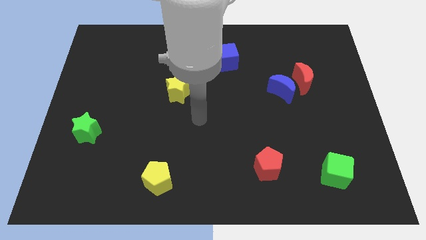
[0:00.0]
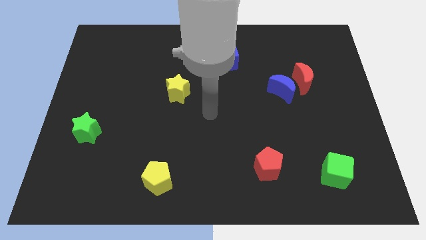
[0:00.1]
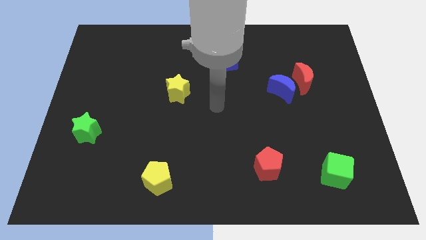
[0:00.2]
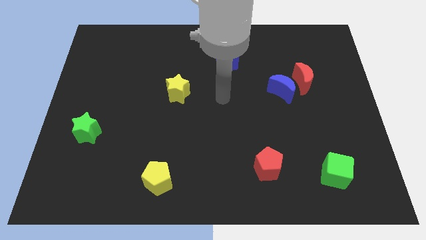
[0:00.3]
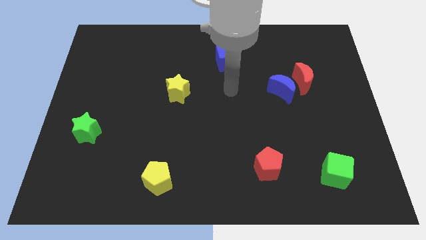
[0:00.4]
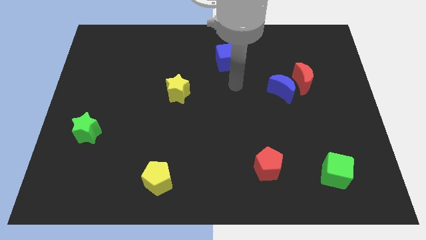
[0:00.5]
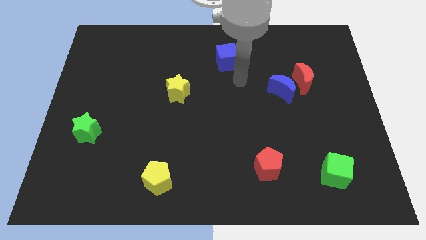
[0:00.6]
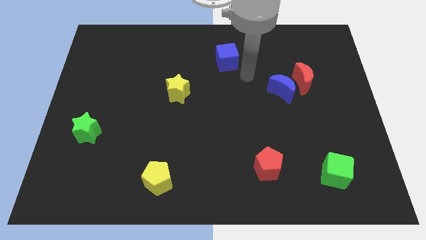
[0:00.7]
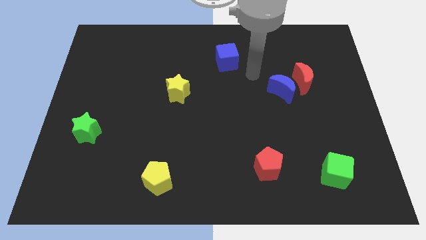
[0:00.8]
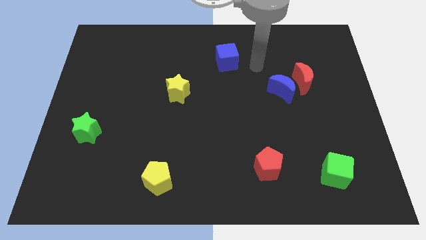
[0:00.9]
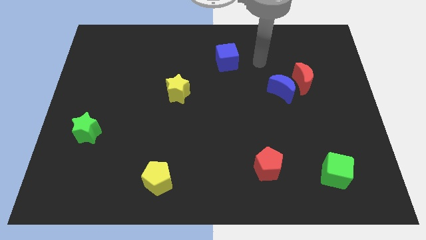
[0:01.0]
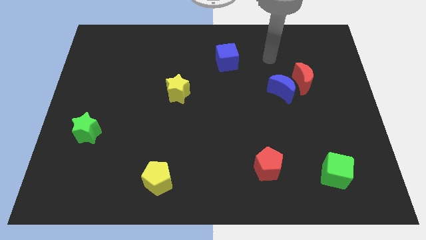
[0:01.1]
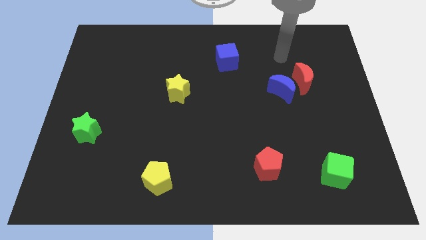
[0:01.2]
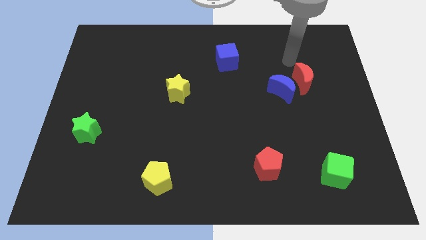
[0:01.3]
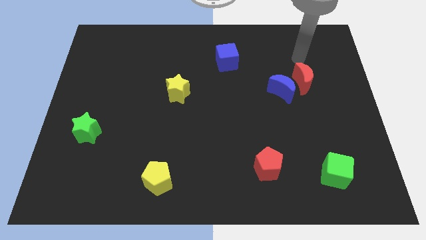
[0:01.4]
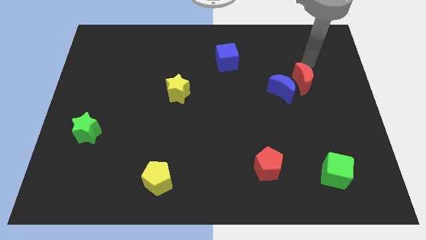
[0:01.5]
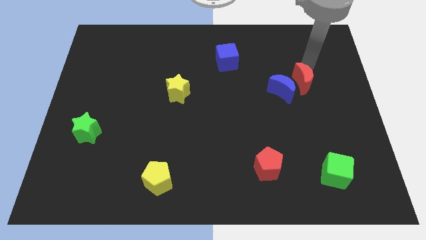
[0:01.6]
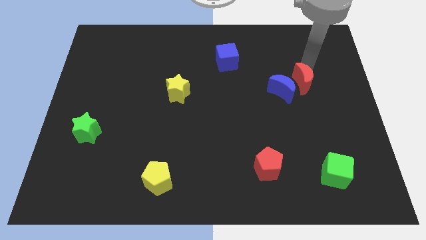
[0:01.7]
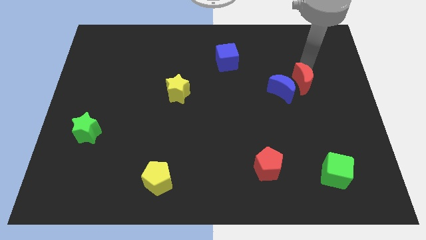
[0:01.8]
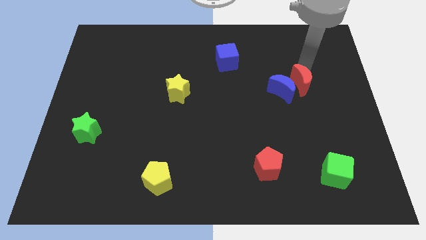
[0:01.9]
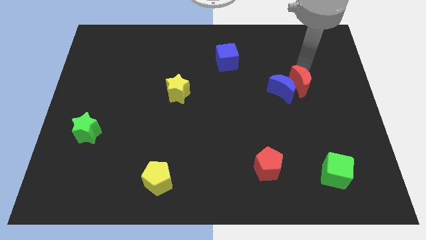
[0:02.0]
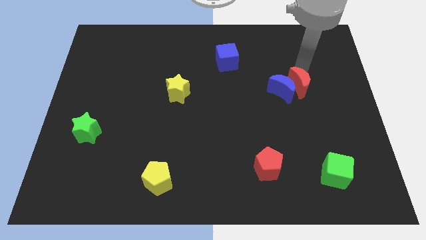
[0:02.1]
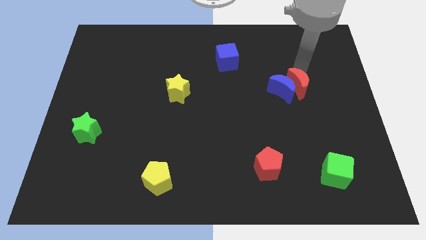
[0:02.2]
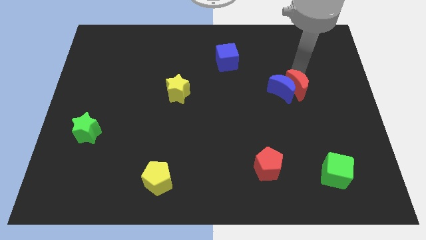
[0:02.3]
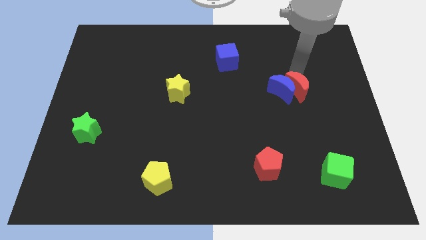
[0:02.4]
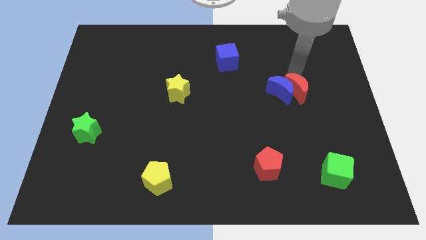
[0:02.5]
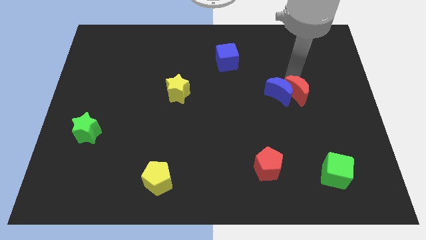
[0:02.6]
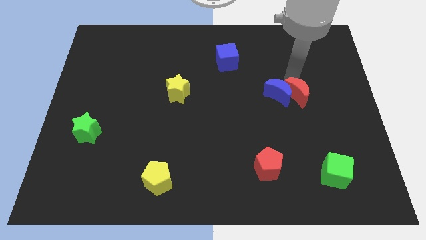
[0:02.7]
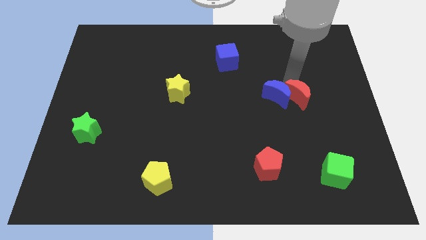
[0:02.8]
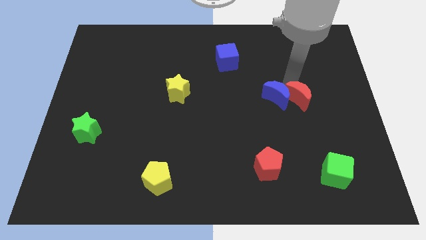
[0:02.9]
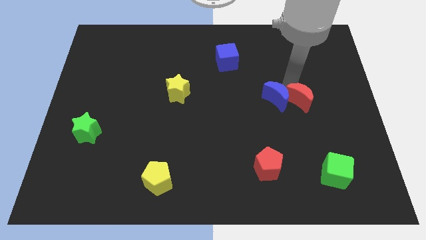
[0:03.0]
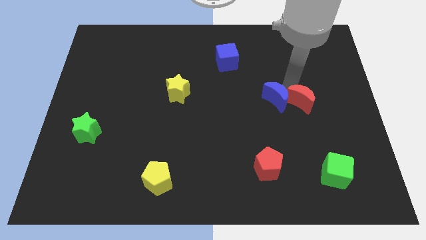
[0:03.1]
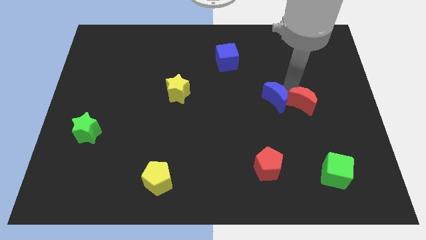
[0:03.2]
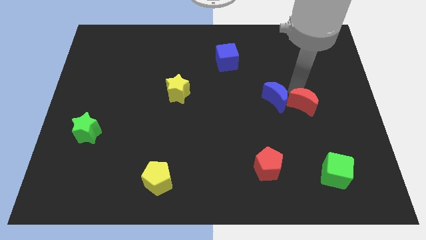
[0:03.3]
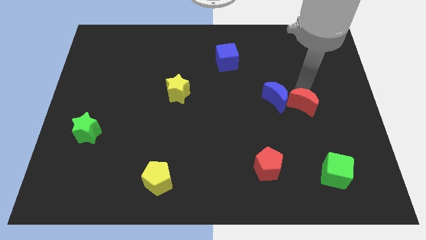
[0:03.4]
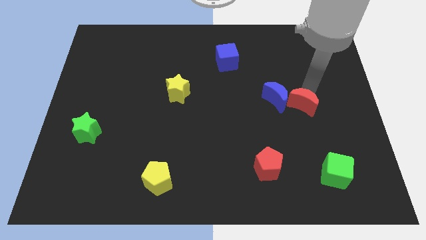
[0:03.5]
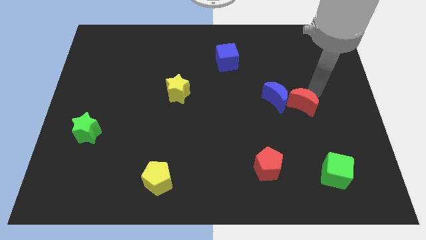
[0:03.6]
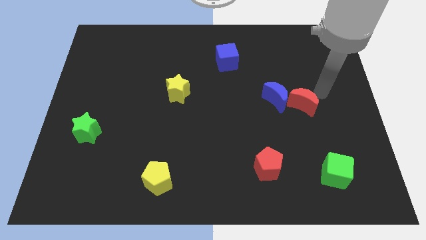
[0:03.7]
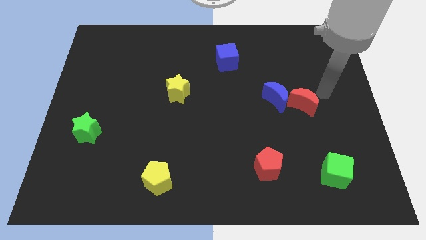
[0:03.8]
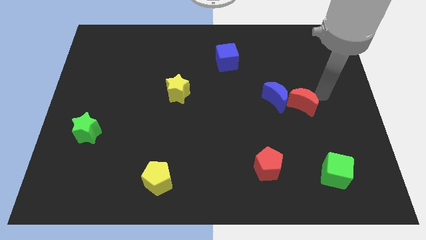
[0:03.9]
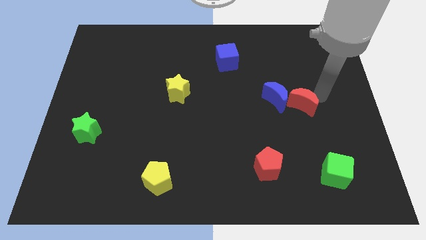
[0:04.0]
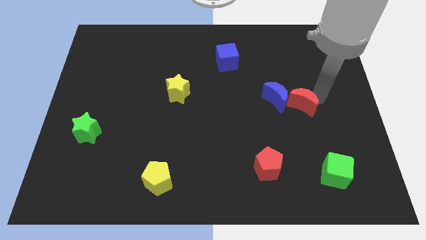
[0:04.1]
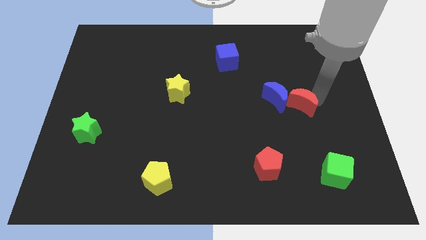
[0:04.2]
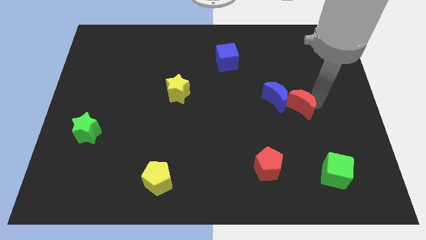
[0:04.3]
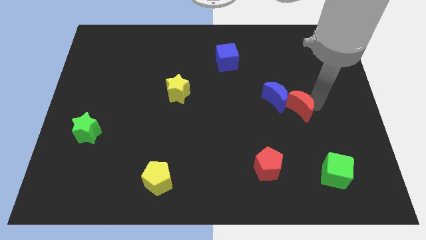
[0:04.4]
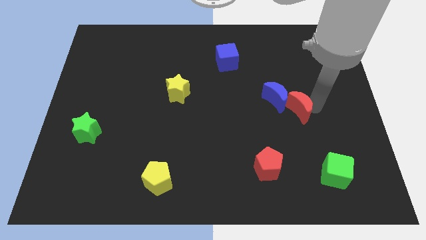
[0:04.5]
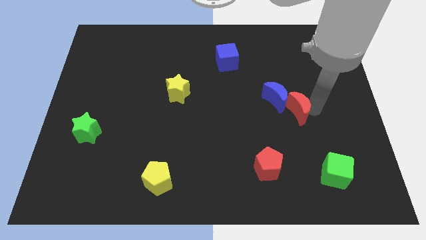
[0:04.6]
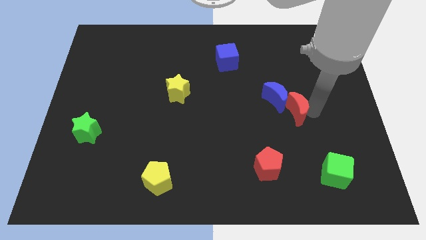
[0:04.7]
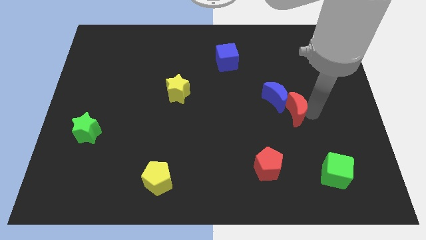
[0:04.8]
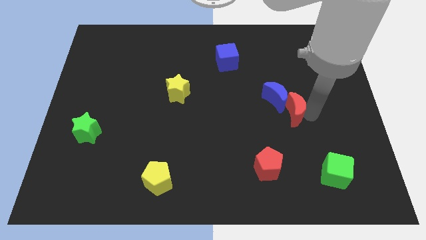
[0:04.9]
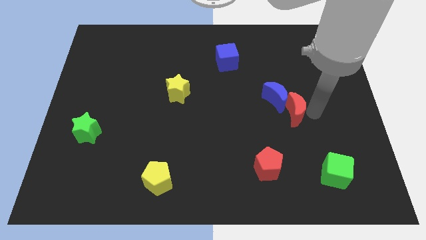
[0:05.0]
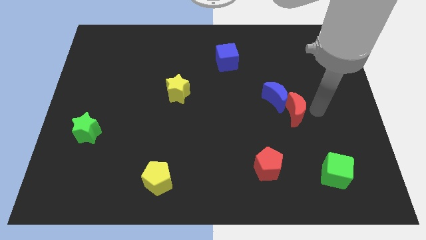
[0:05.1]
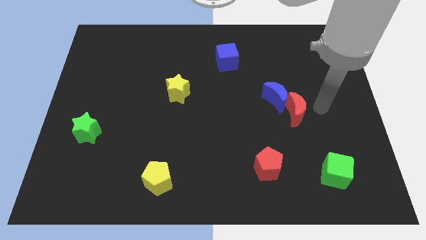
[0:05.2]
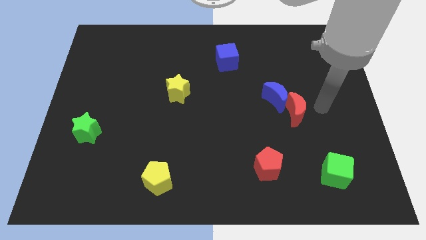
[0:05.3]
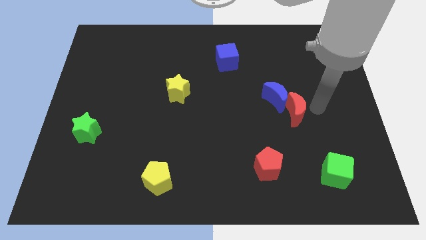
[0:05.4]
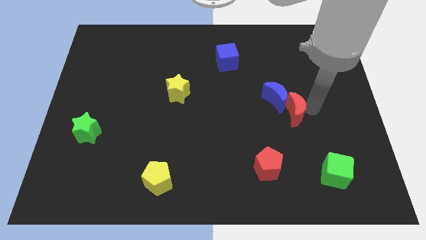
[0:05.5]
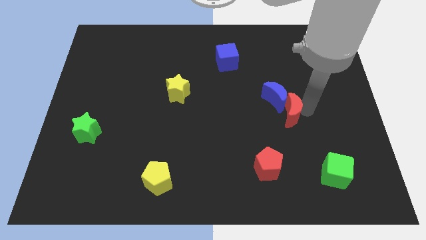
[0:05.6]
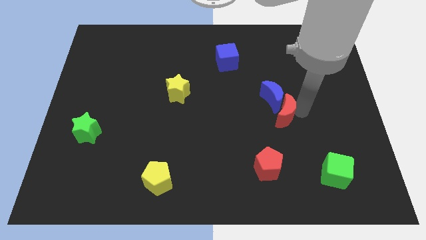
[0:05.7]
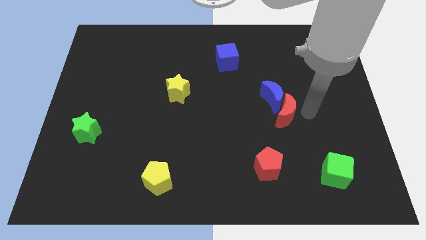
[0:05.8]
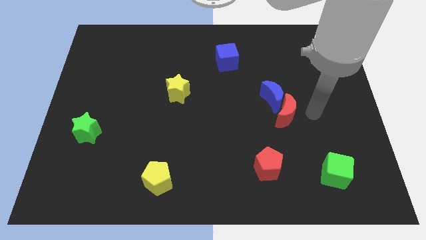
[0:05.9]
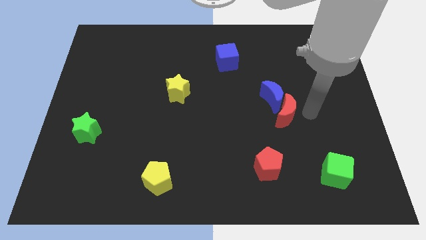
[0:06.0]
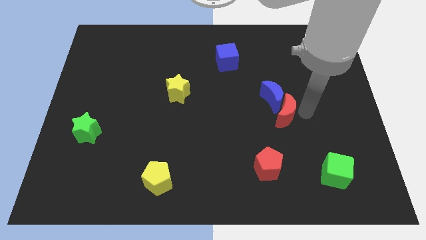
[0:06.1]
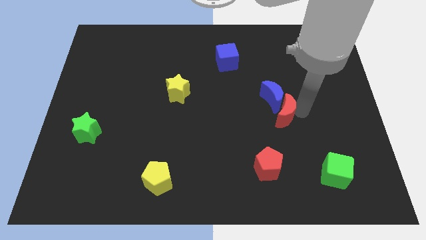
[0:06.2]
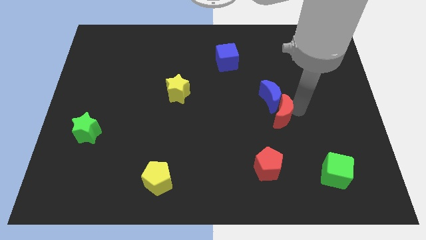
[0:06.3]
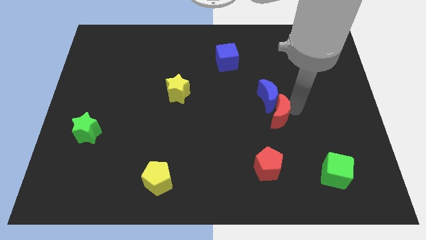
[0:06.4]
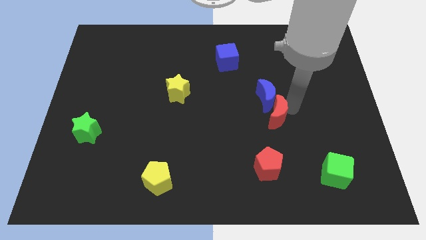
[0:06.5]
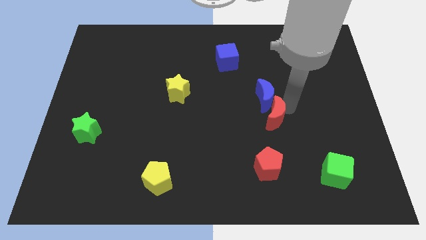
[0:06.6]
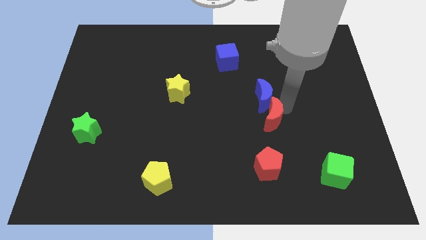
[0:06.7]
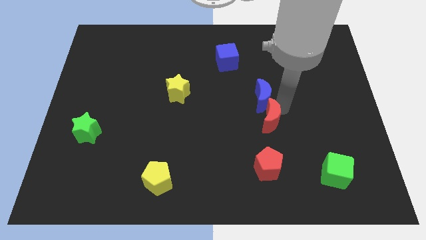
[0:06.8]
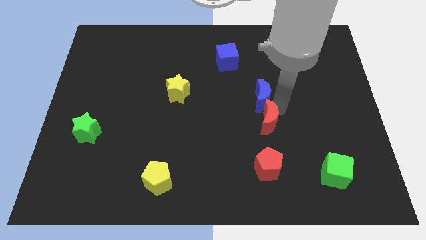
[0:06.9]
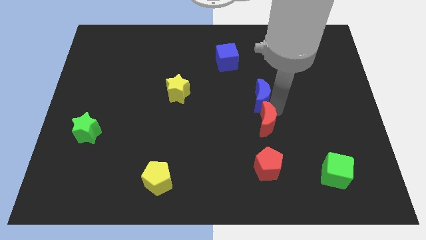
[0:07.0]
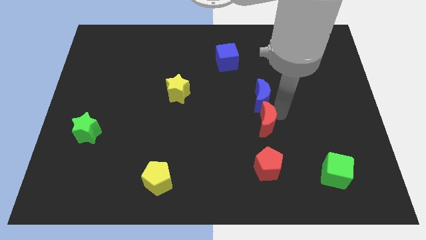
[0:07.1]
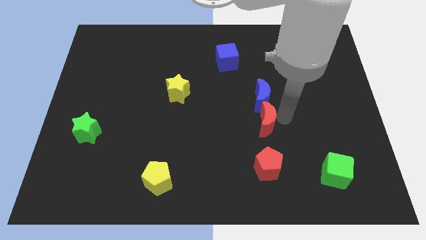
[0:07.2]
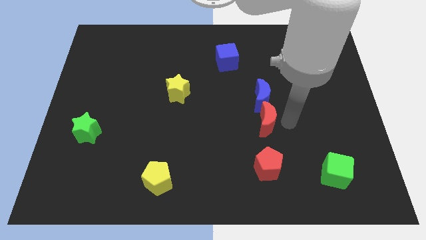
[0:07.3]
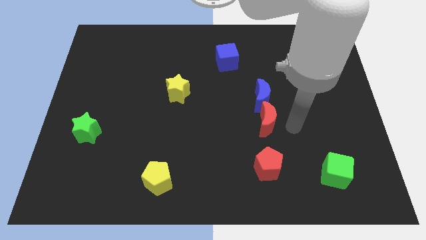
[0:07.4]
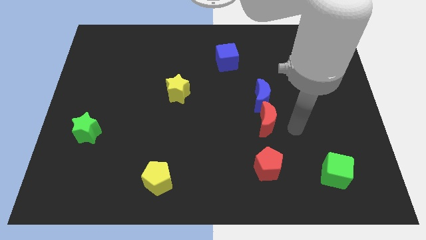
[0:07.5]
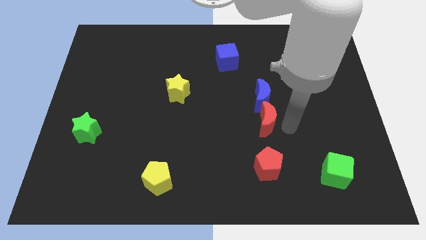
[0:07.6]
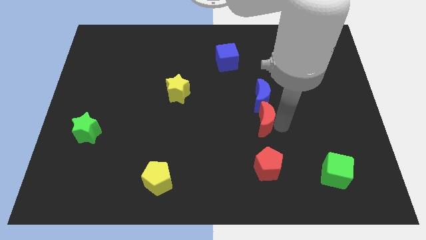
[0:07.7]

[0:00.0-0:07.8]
move the red moon to the bottom left of the blue moon
